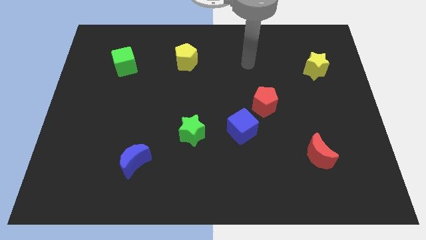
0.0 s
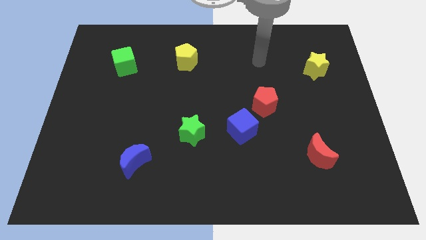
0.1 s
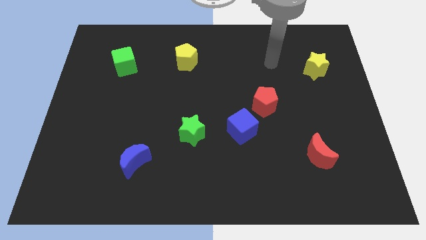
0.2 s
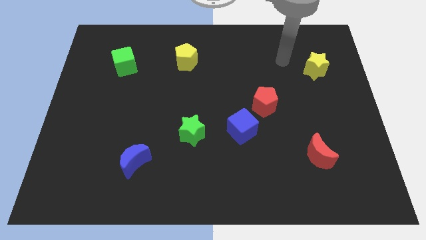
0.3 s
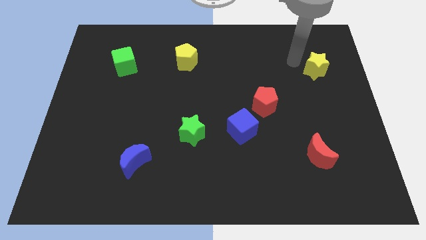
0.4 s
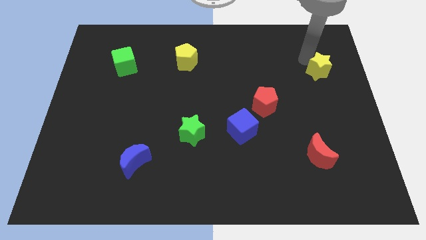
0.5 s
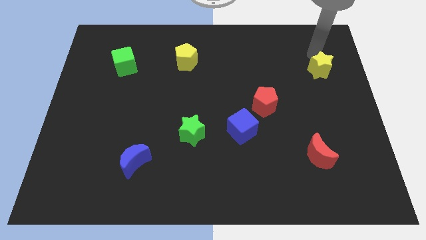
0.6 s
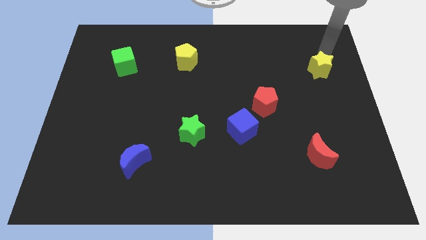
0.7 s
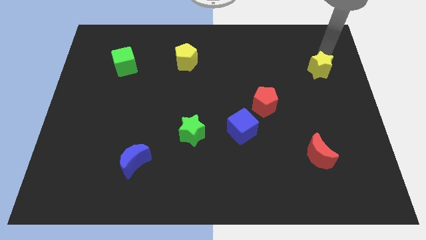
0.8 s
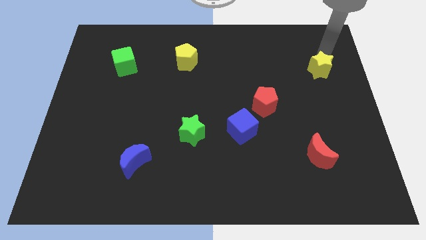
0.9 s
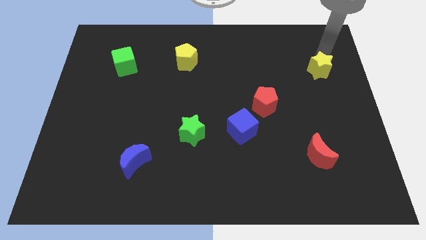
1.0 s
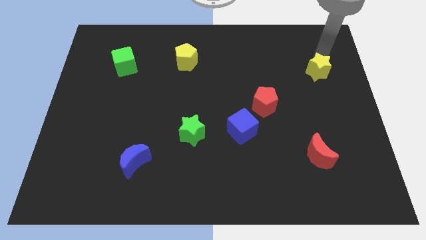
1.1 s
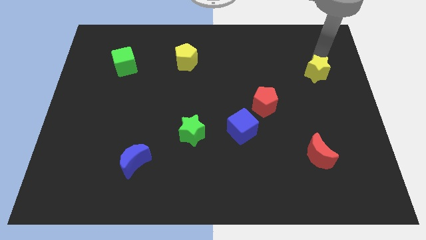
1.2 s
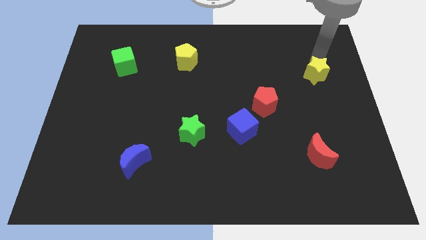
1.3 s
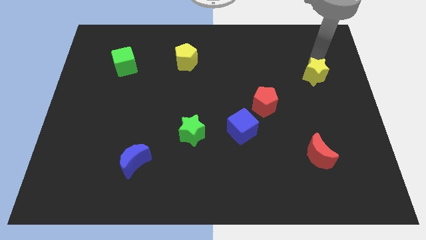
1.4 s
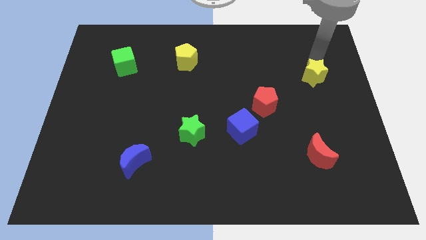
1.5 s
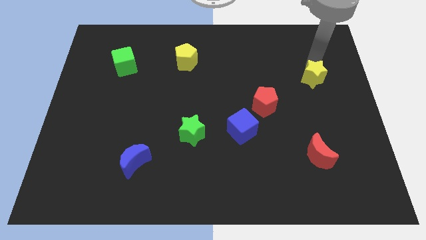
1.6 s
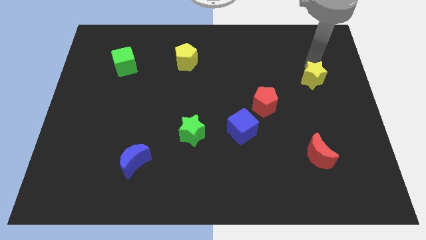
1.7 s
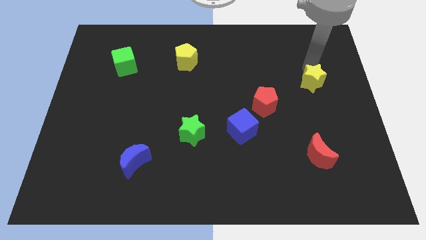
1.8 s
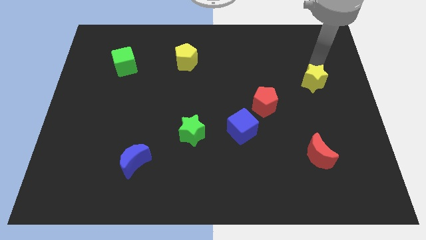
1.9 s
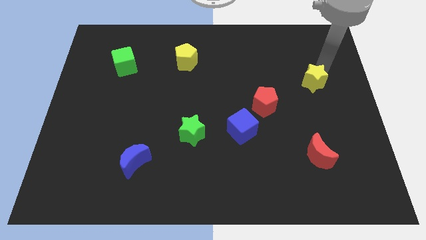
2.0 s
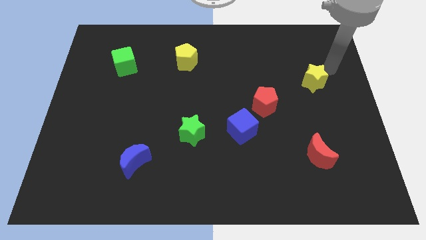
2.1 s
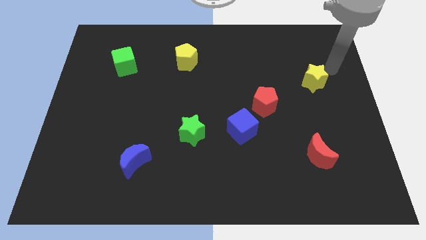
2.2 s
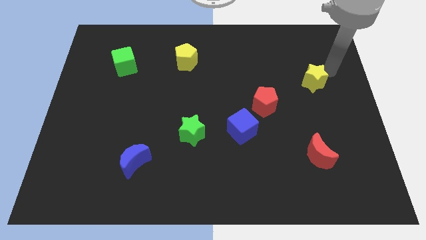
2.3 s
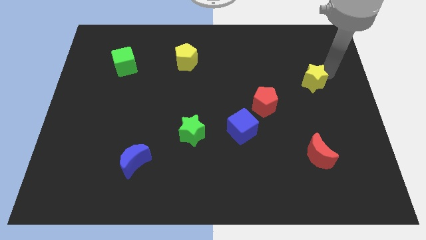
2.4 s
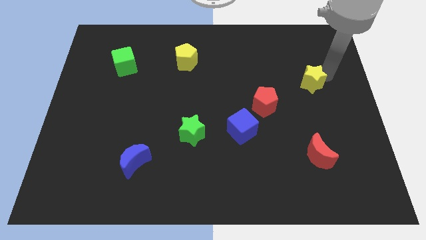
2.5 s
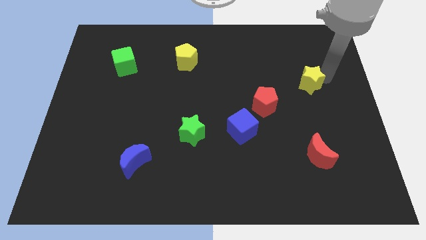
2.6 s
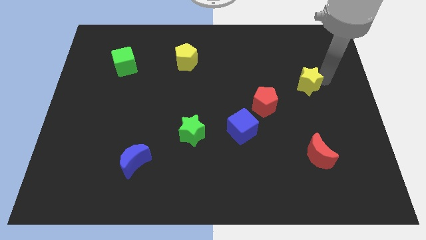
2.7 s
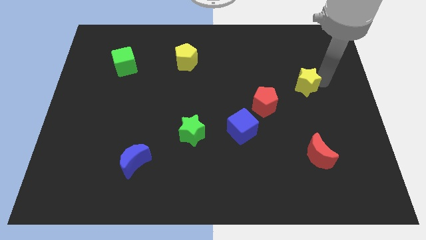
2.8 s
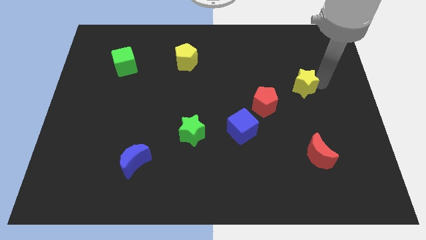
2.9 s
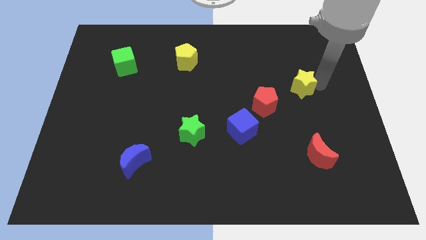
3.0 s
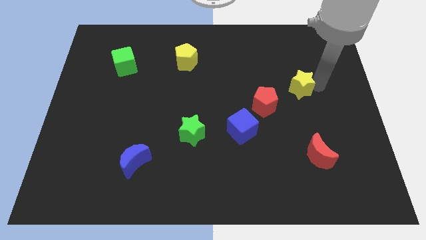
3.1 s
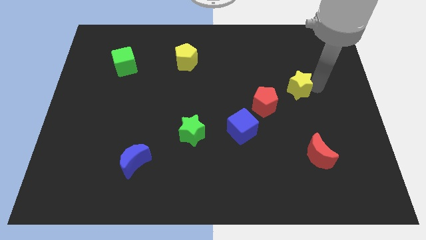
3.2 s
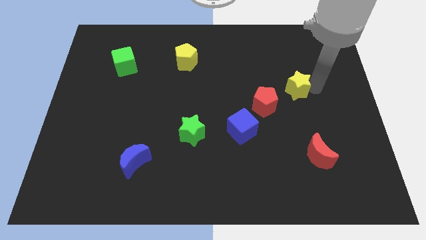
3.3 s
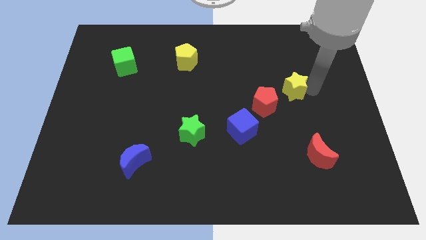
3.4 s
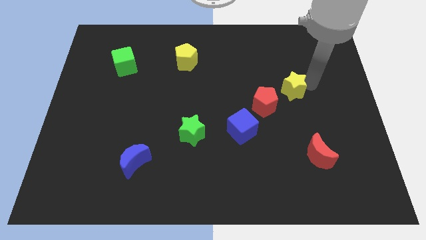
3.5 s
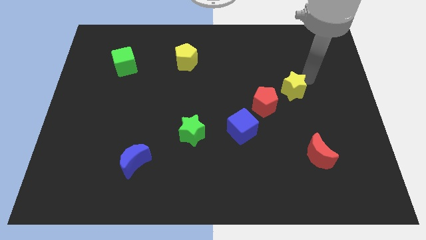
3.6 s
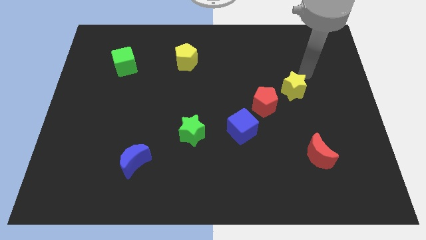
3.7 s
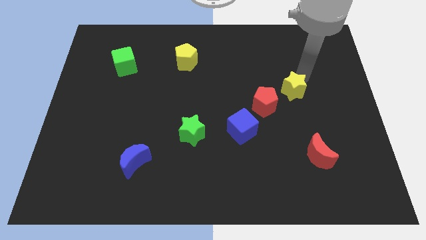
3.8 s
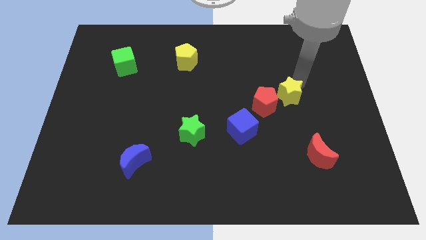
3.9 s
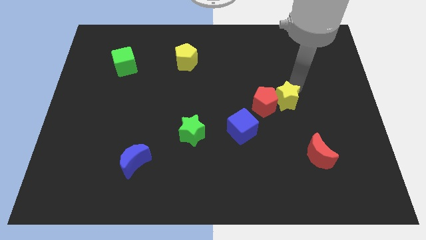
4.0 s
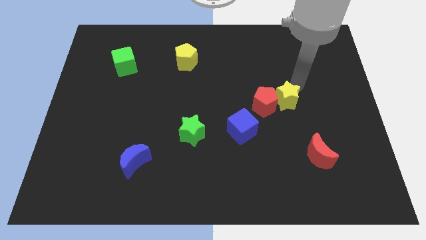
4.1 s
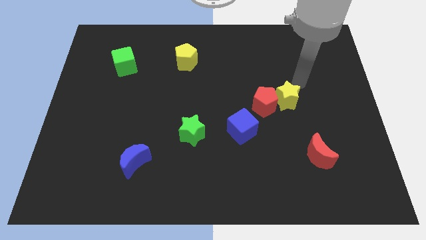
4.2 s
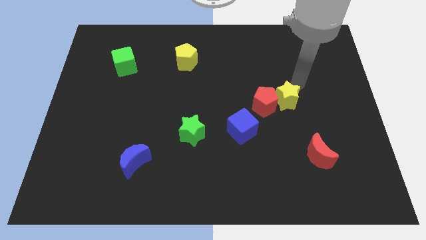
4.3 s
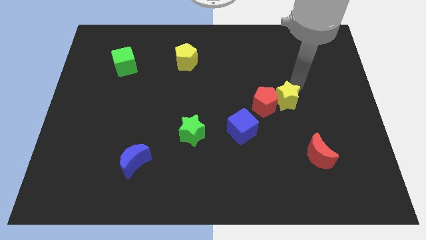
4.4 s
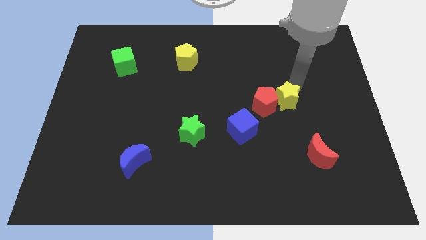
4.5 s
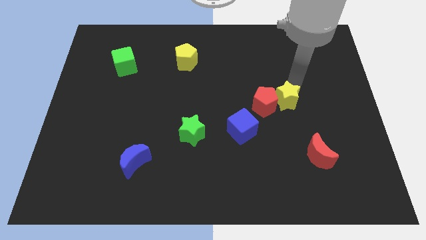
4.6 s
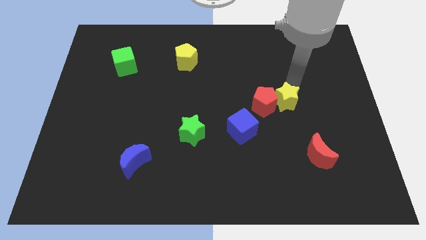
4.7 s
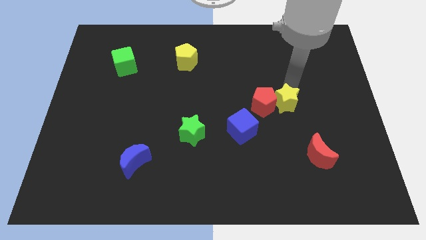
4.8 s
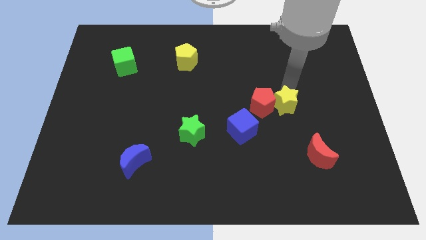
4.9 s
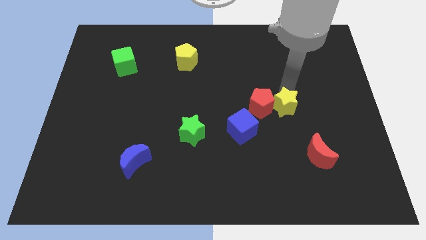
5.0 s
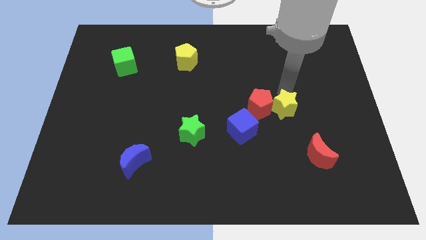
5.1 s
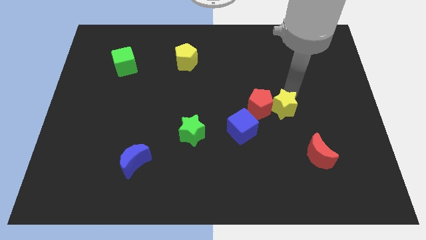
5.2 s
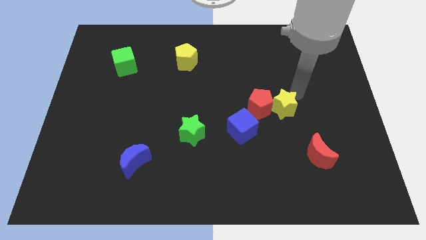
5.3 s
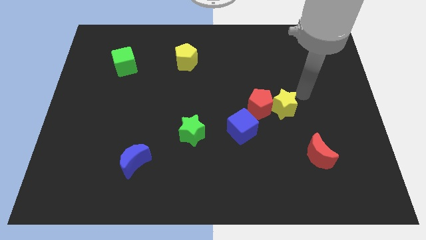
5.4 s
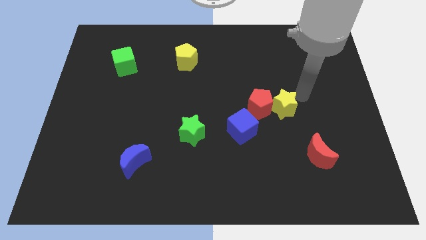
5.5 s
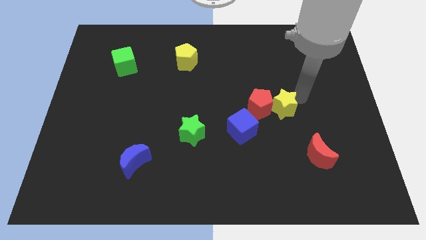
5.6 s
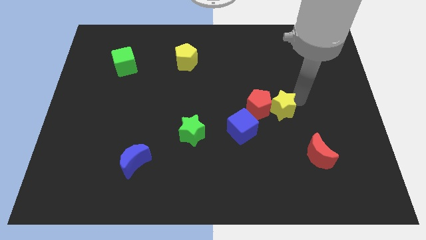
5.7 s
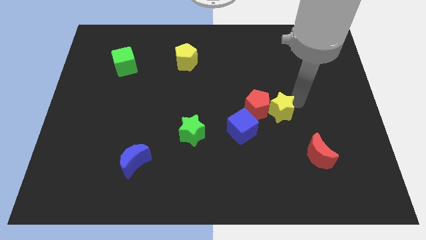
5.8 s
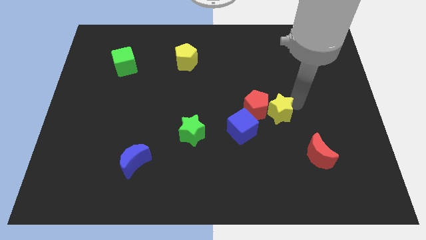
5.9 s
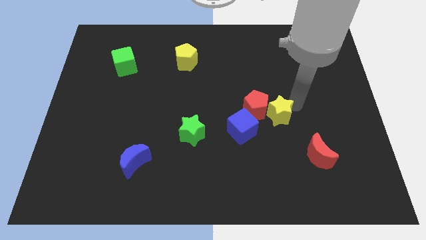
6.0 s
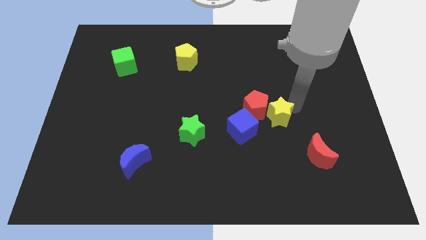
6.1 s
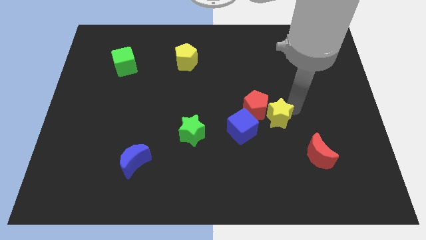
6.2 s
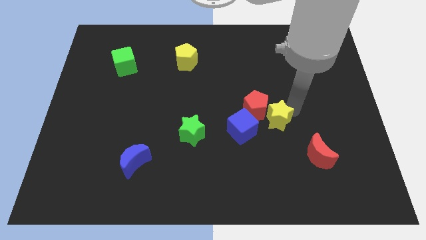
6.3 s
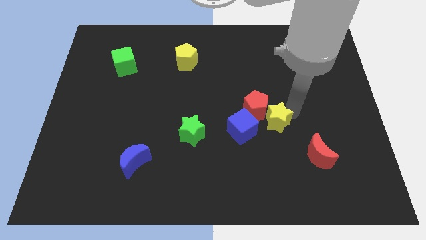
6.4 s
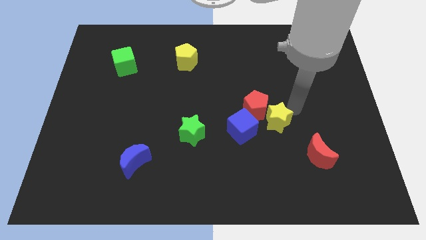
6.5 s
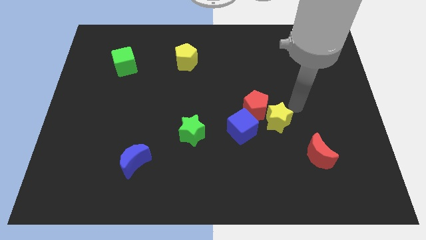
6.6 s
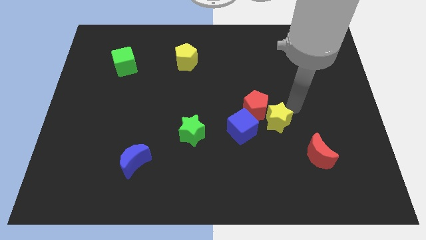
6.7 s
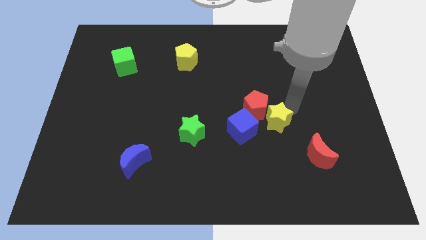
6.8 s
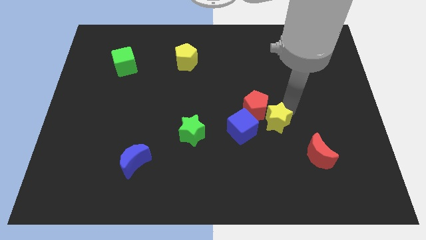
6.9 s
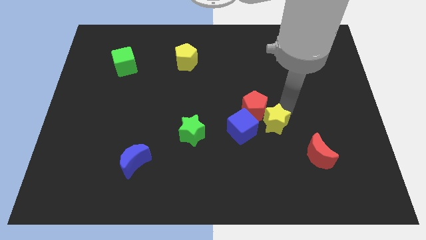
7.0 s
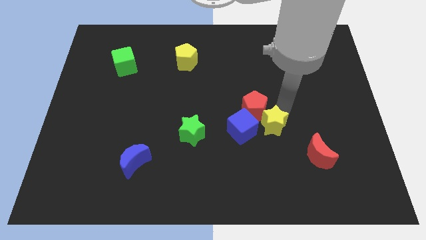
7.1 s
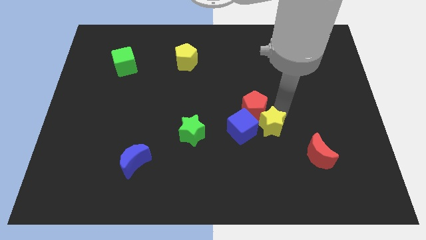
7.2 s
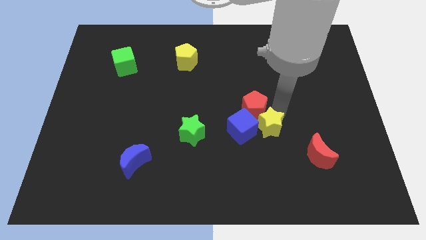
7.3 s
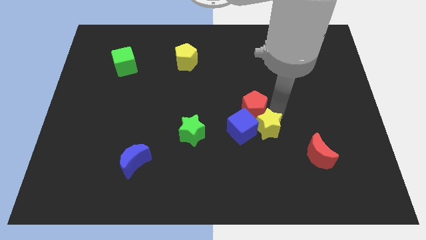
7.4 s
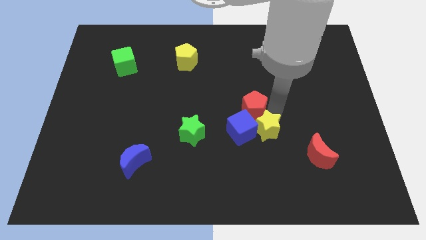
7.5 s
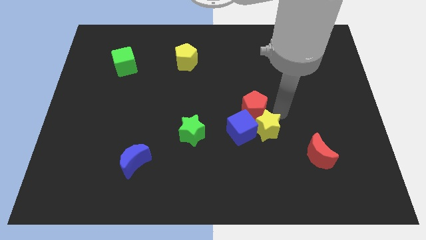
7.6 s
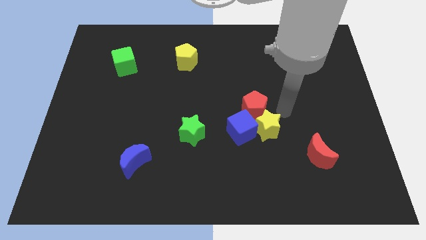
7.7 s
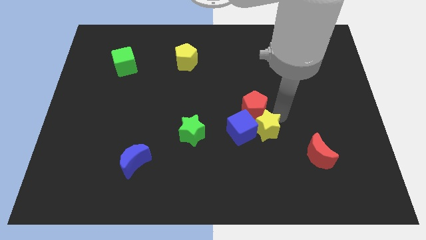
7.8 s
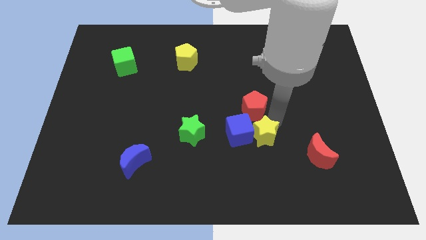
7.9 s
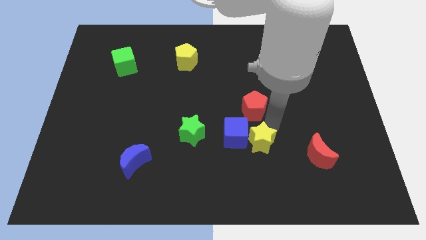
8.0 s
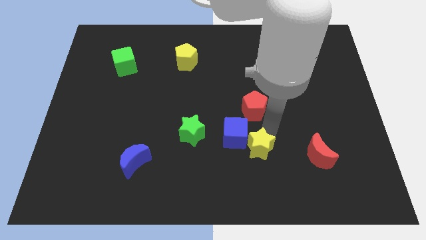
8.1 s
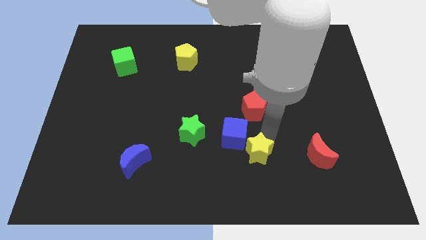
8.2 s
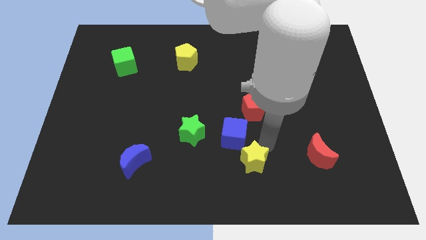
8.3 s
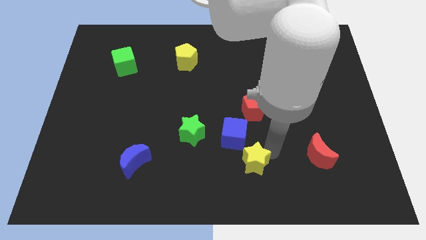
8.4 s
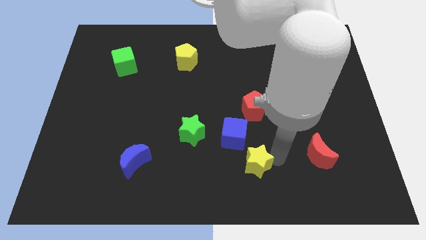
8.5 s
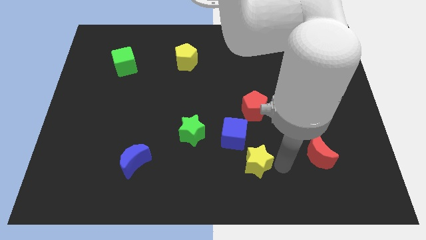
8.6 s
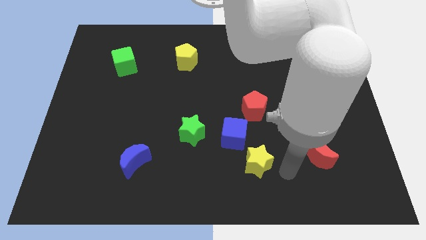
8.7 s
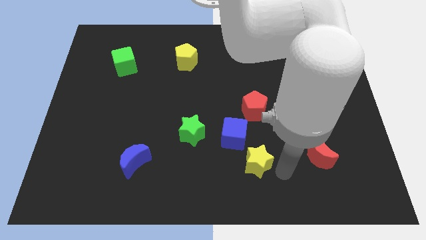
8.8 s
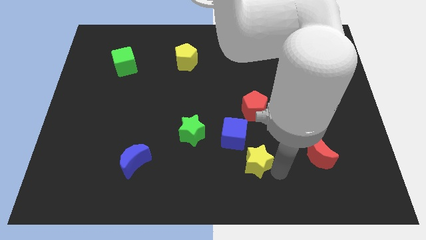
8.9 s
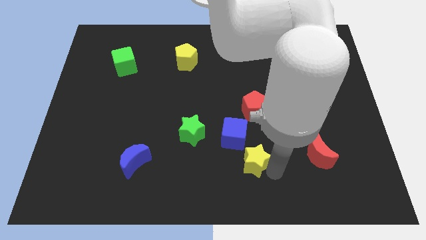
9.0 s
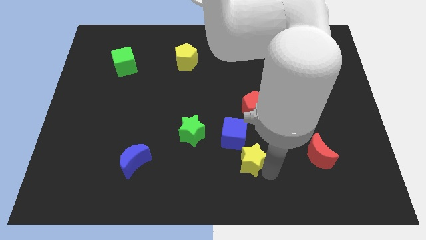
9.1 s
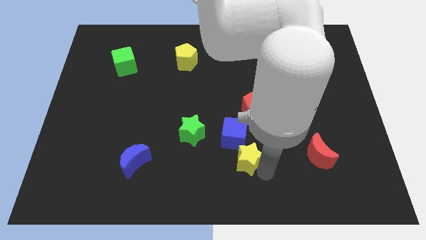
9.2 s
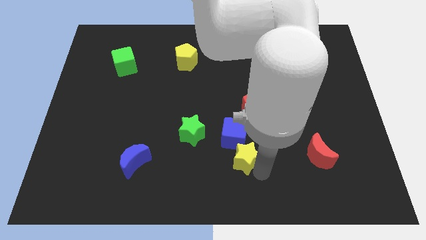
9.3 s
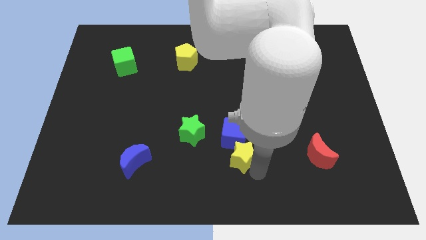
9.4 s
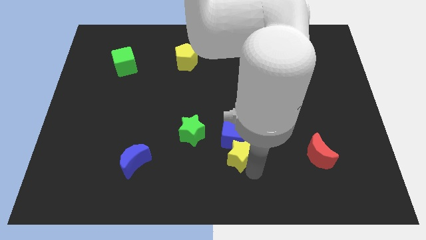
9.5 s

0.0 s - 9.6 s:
move the yellow star to the bottom right of the green star
